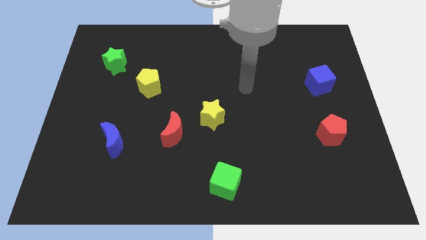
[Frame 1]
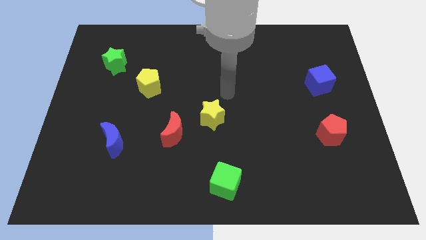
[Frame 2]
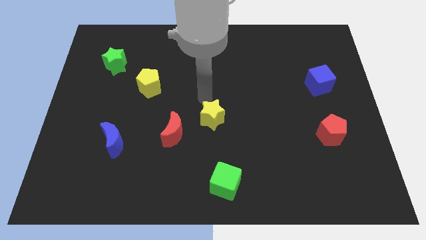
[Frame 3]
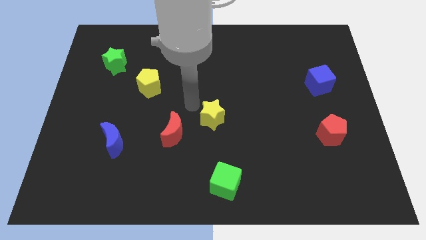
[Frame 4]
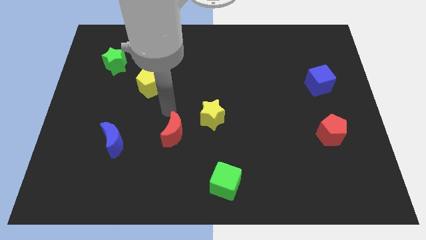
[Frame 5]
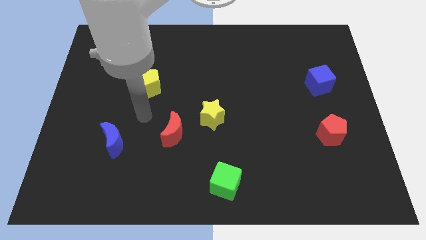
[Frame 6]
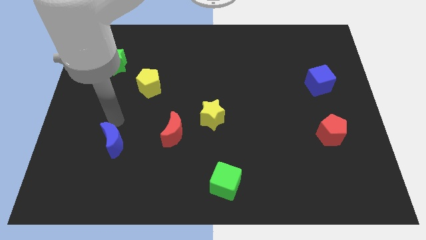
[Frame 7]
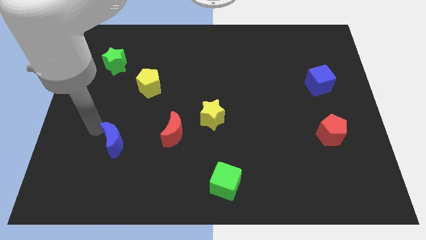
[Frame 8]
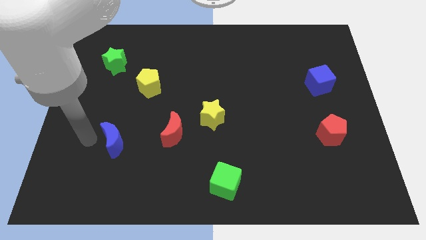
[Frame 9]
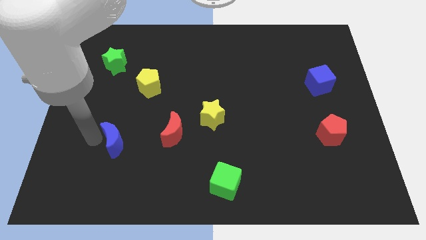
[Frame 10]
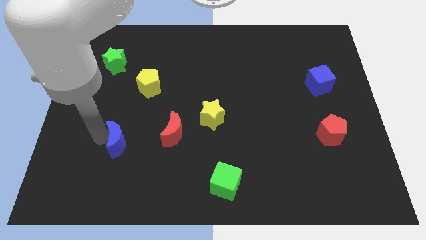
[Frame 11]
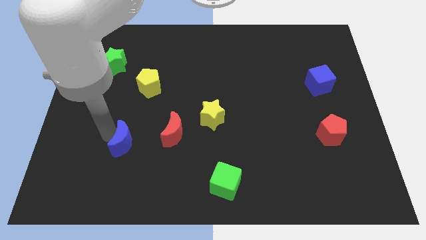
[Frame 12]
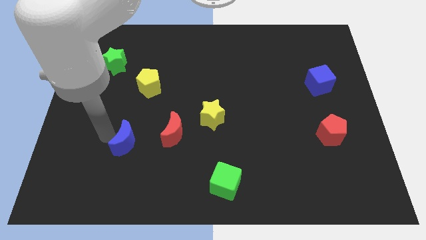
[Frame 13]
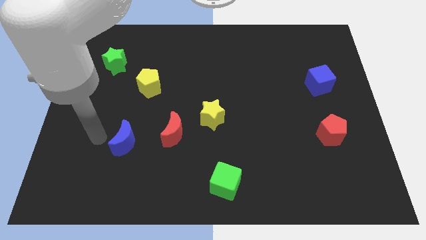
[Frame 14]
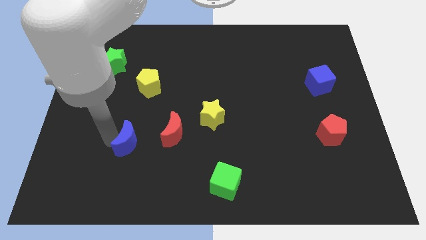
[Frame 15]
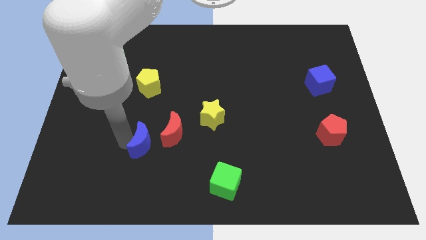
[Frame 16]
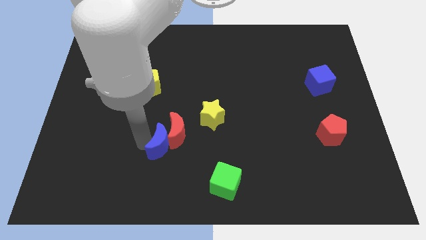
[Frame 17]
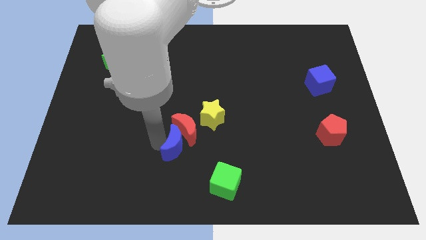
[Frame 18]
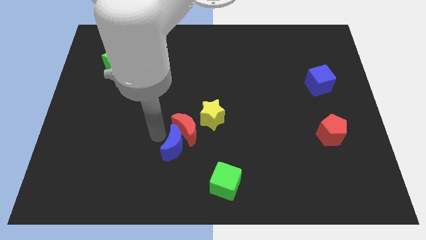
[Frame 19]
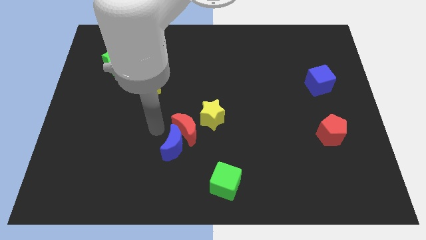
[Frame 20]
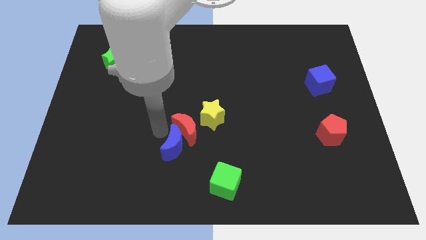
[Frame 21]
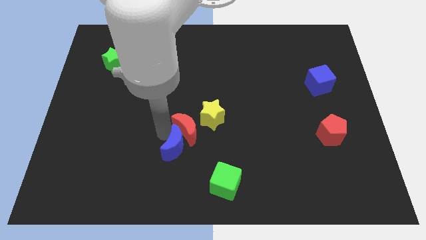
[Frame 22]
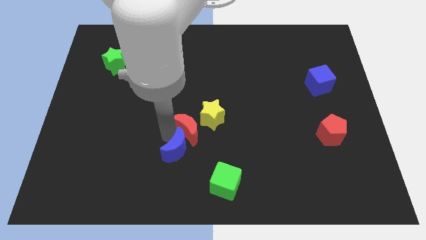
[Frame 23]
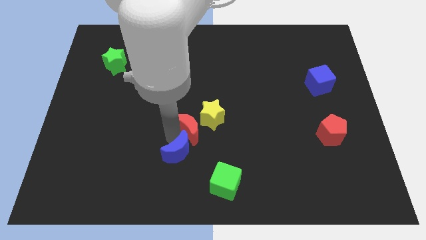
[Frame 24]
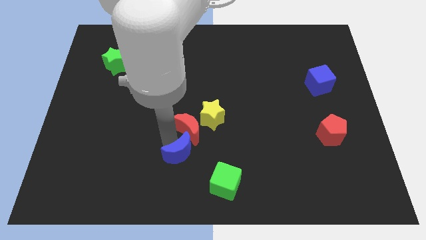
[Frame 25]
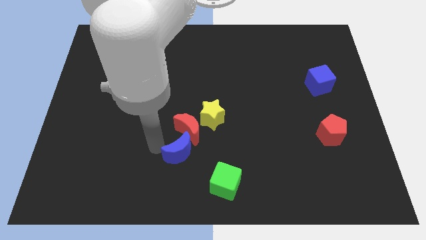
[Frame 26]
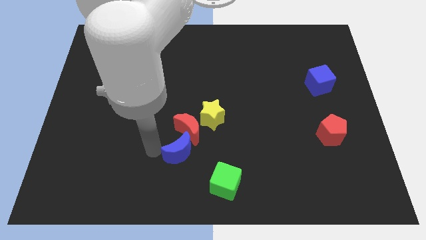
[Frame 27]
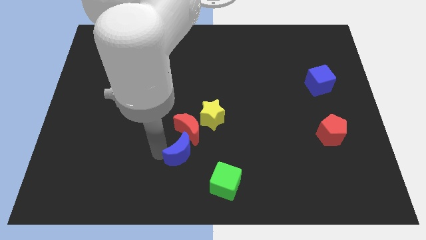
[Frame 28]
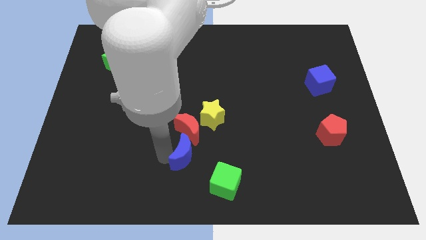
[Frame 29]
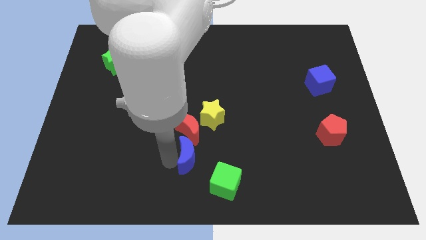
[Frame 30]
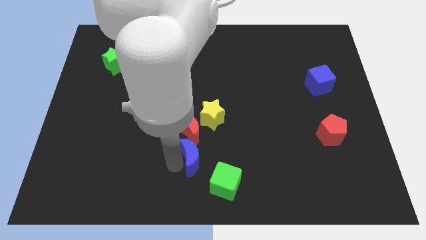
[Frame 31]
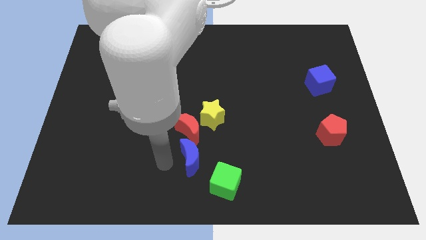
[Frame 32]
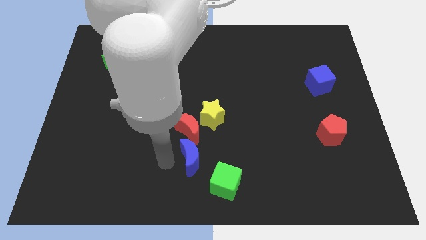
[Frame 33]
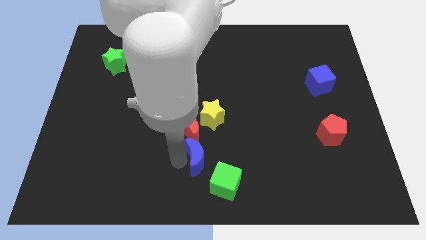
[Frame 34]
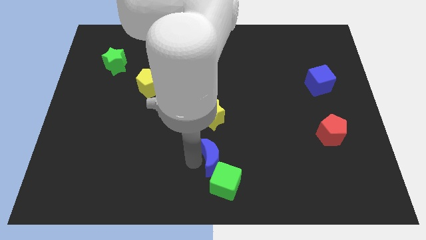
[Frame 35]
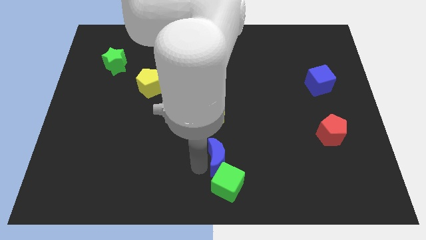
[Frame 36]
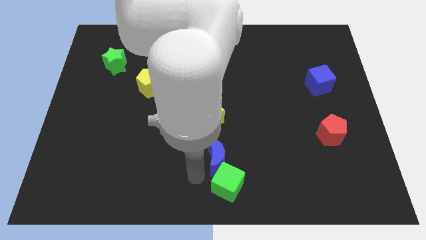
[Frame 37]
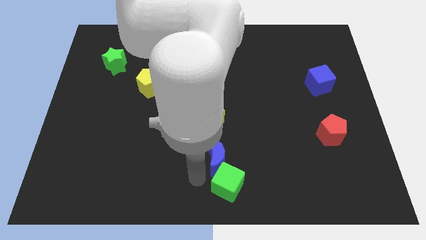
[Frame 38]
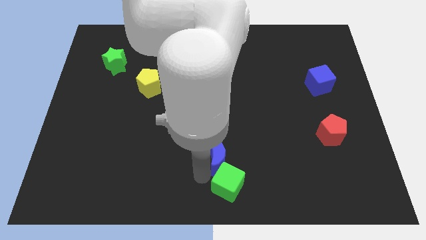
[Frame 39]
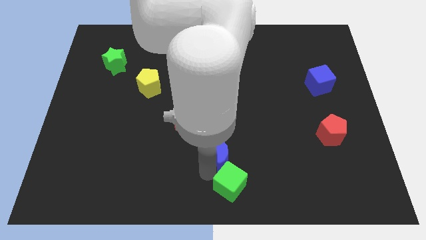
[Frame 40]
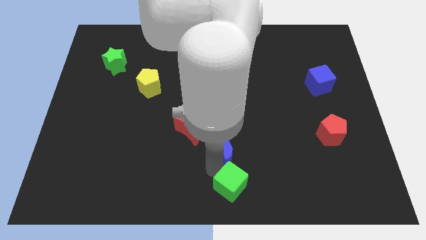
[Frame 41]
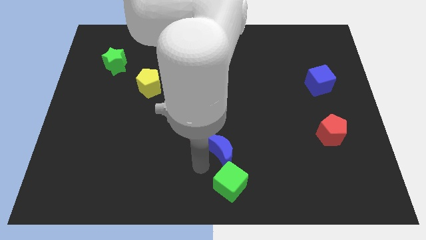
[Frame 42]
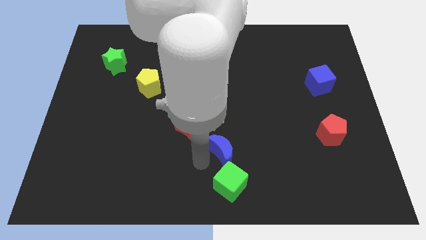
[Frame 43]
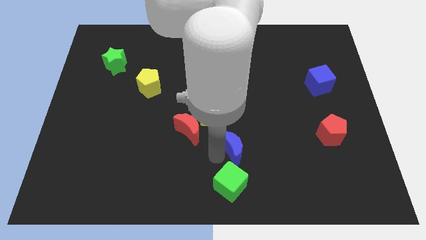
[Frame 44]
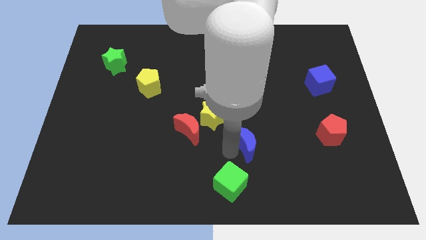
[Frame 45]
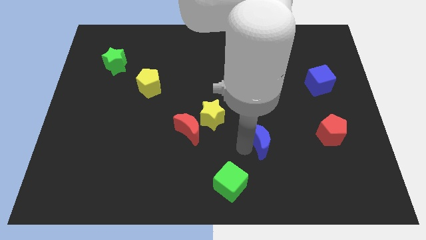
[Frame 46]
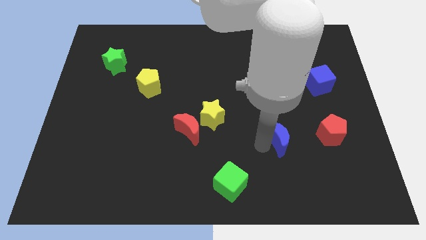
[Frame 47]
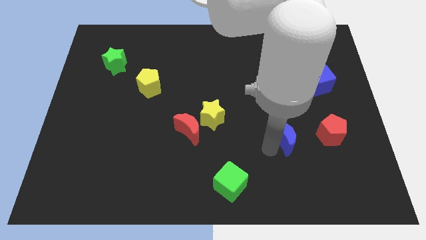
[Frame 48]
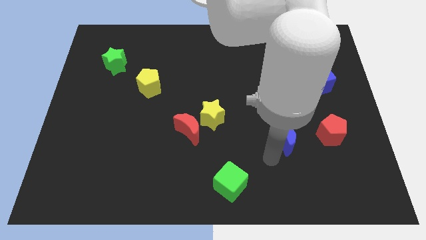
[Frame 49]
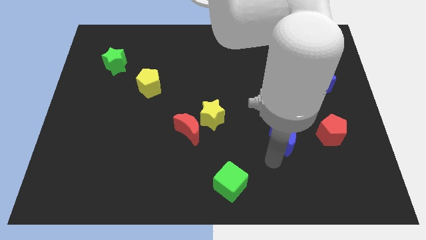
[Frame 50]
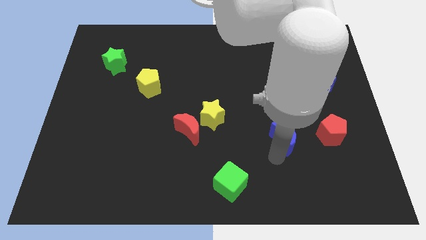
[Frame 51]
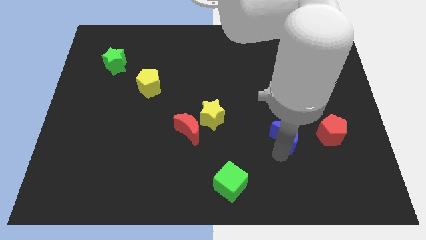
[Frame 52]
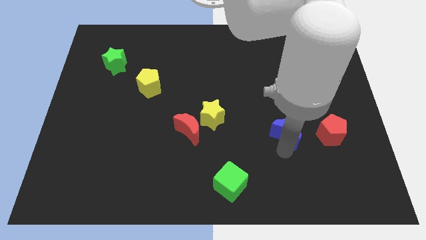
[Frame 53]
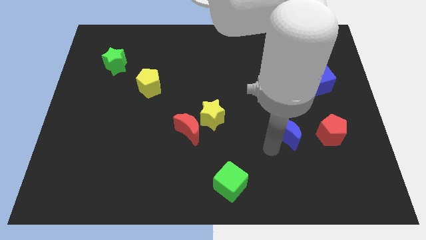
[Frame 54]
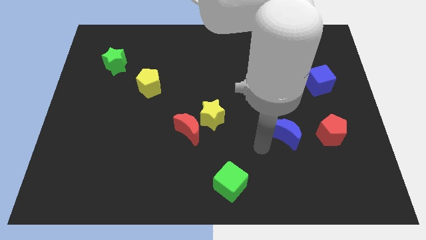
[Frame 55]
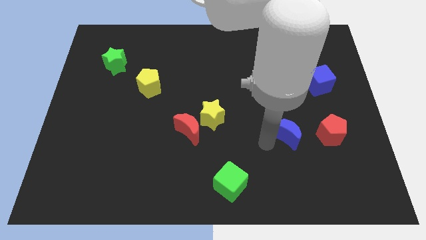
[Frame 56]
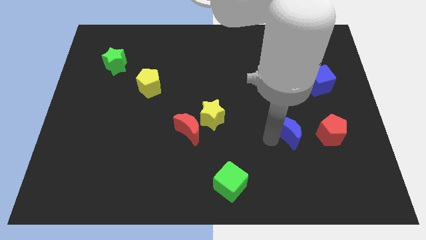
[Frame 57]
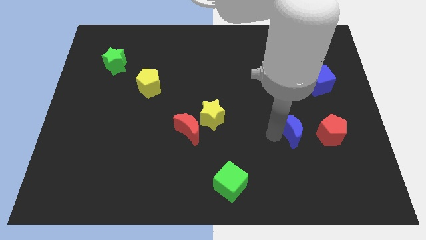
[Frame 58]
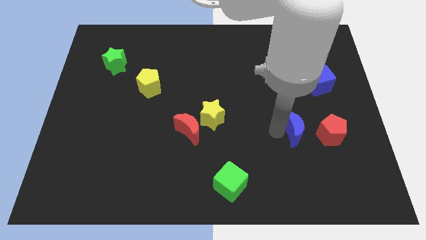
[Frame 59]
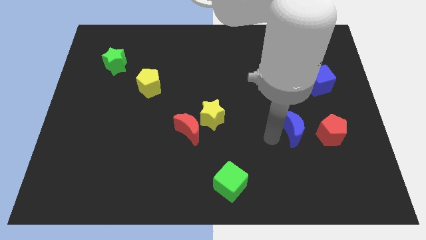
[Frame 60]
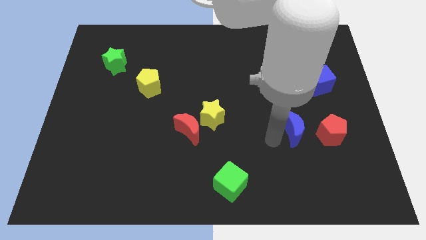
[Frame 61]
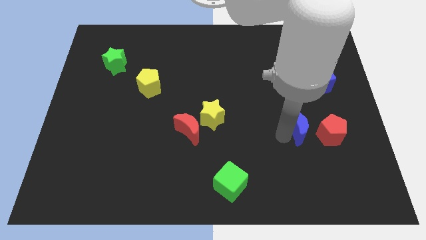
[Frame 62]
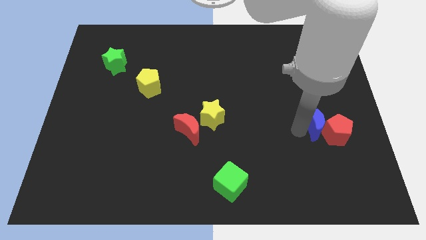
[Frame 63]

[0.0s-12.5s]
push the blue moon to the bottom side of the blue cube

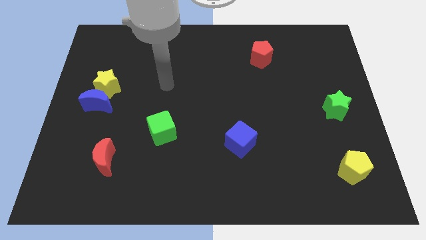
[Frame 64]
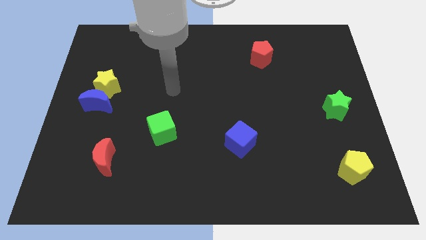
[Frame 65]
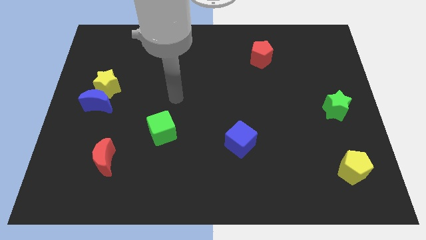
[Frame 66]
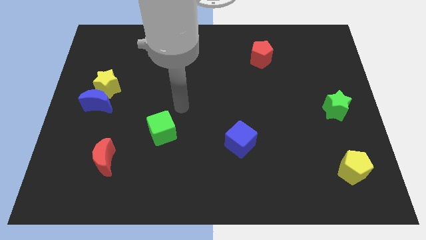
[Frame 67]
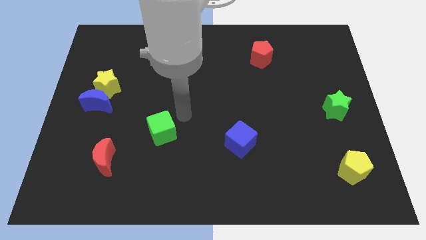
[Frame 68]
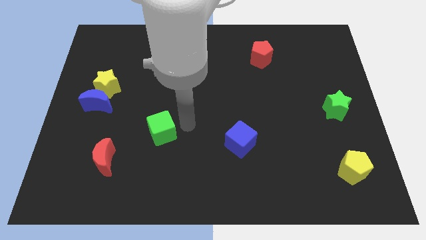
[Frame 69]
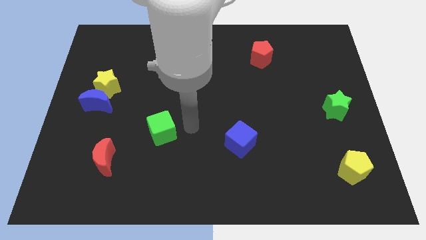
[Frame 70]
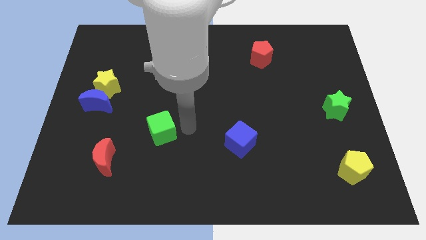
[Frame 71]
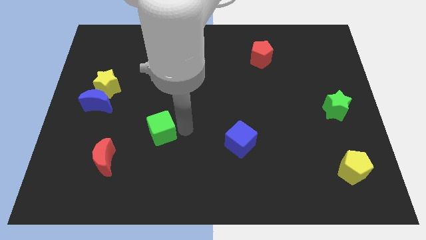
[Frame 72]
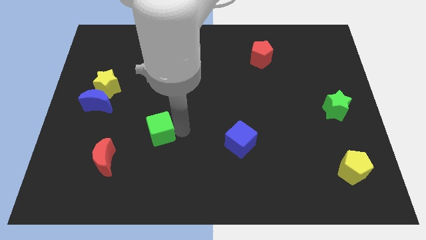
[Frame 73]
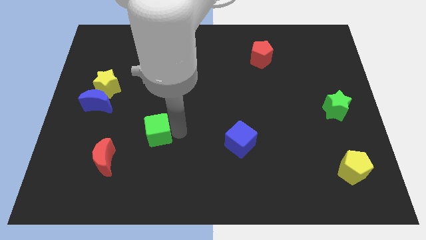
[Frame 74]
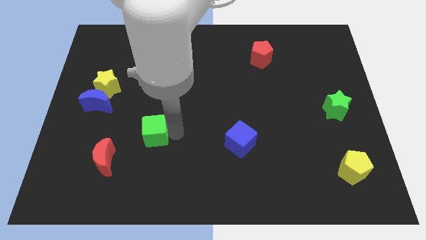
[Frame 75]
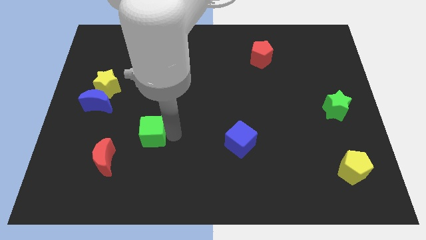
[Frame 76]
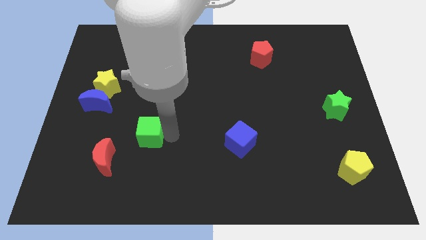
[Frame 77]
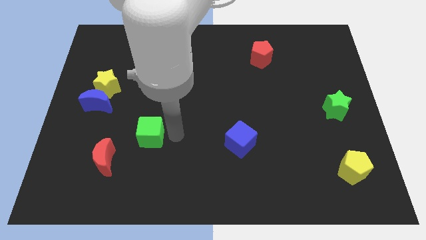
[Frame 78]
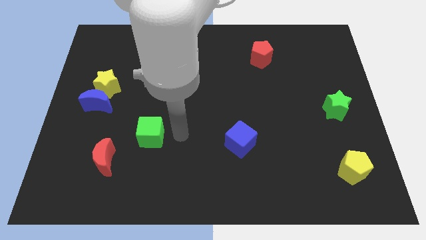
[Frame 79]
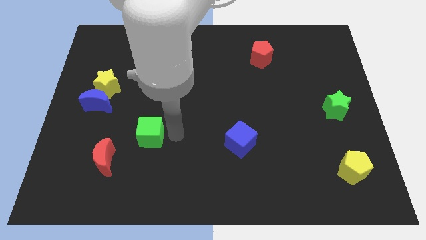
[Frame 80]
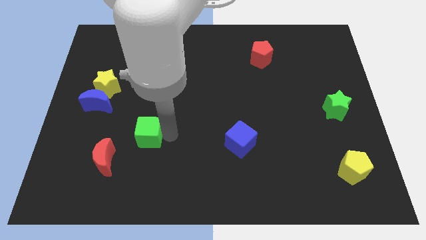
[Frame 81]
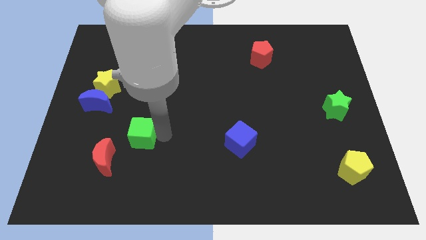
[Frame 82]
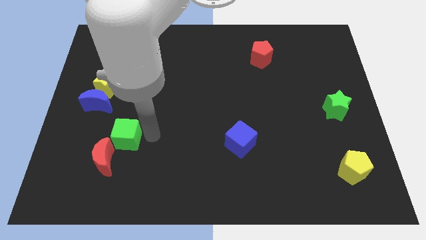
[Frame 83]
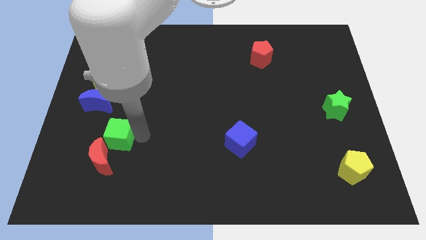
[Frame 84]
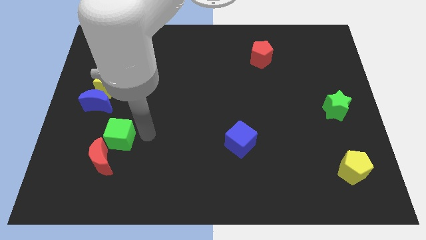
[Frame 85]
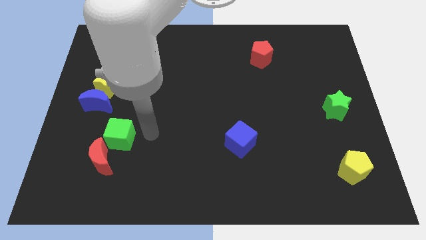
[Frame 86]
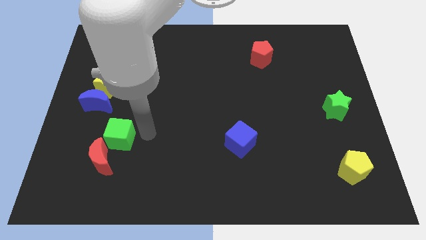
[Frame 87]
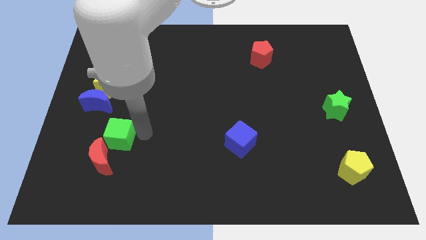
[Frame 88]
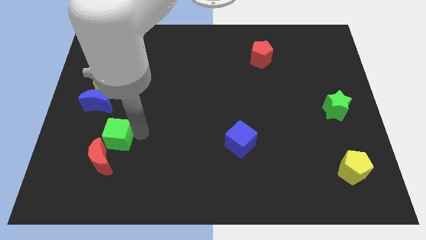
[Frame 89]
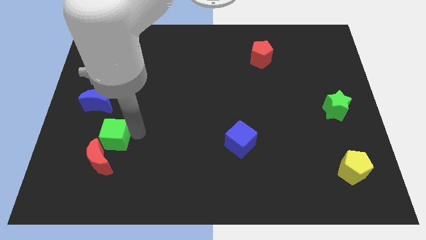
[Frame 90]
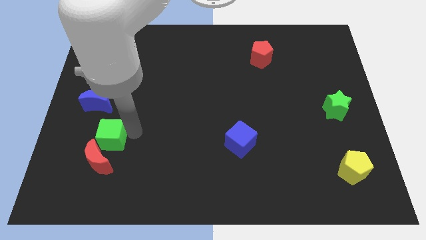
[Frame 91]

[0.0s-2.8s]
move the green cube to the bottom of the blue moon
